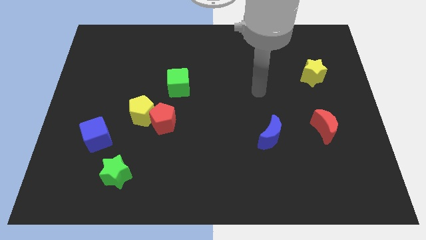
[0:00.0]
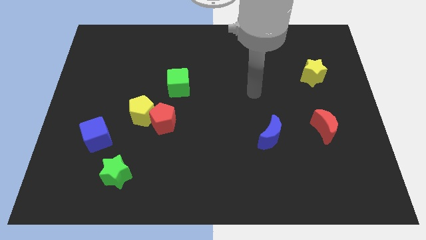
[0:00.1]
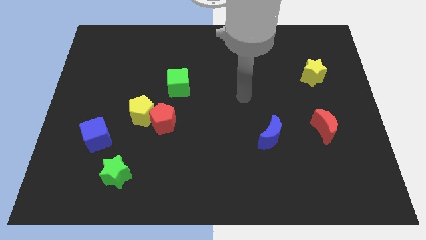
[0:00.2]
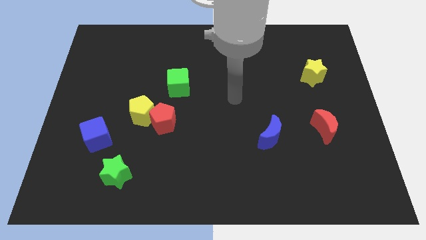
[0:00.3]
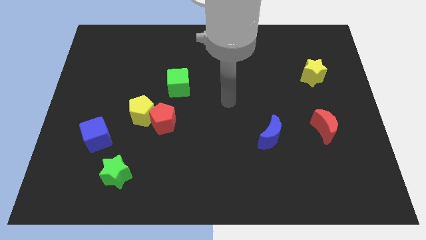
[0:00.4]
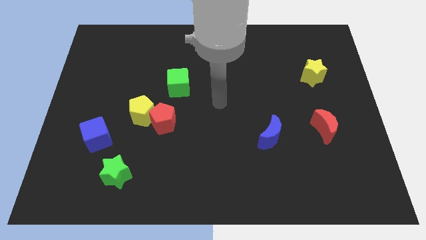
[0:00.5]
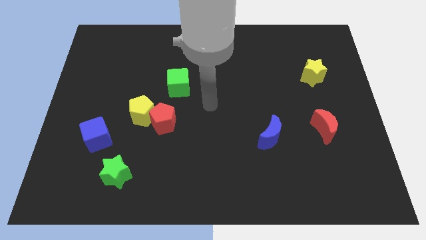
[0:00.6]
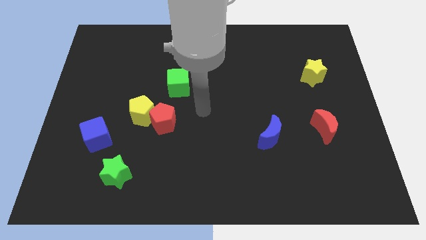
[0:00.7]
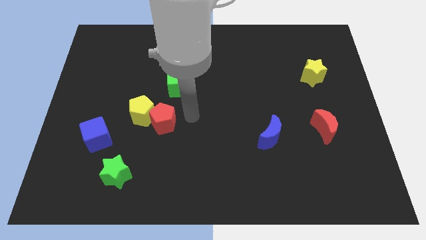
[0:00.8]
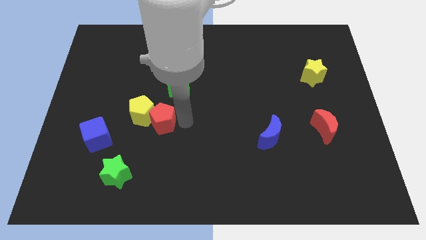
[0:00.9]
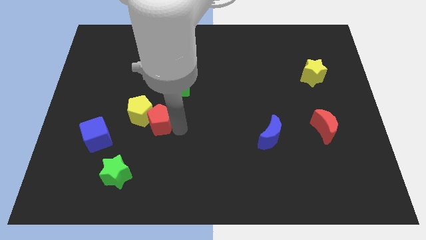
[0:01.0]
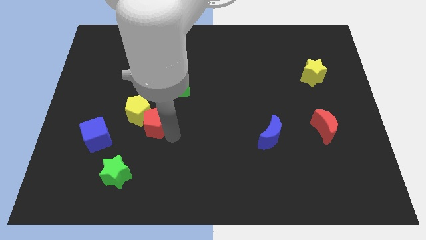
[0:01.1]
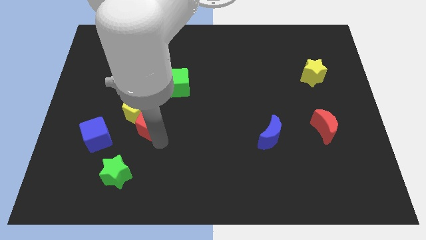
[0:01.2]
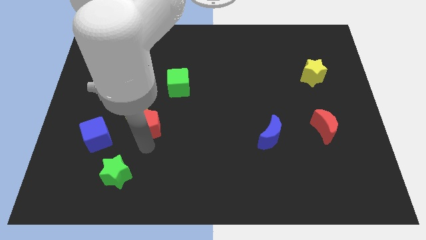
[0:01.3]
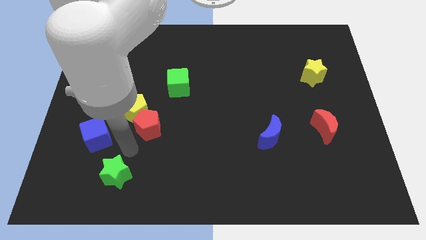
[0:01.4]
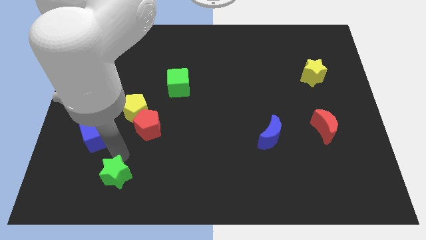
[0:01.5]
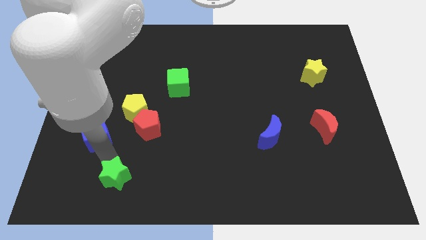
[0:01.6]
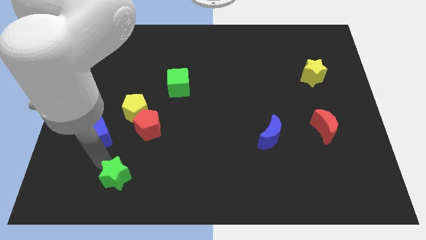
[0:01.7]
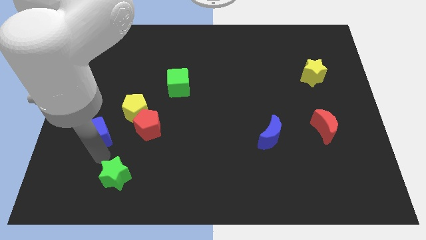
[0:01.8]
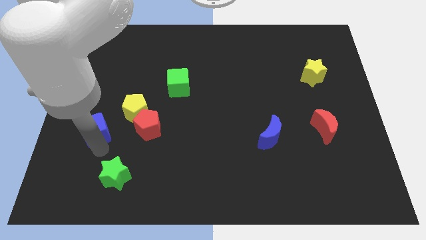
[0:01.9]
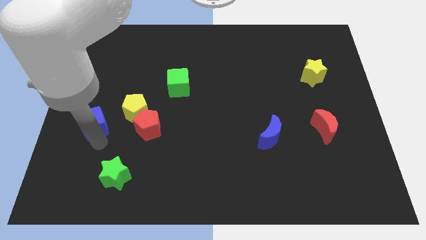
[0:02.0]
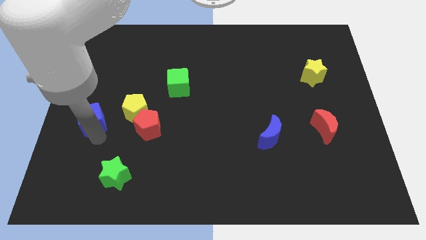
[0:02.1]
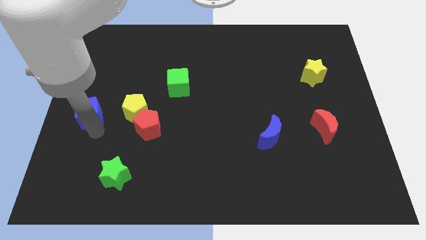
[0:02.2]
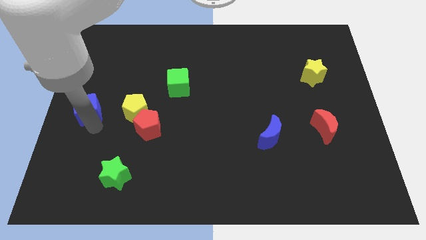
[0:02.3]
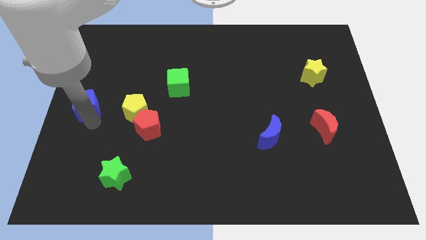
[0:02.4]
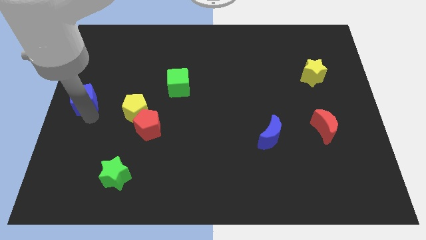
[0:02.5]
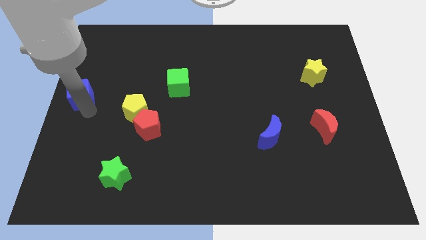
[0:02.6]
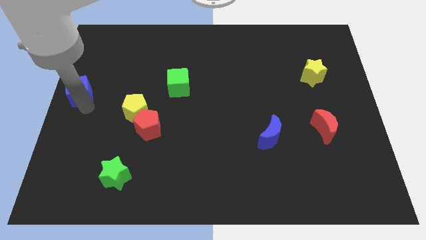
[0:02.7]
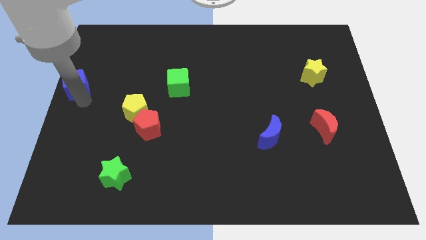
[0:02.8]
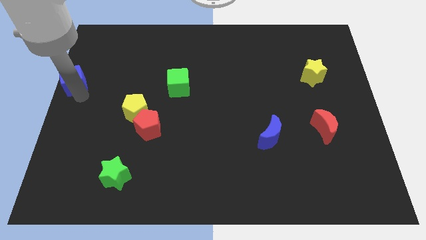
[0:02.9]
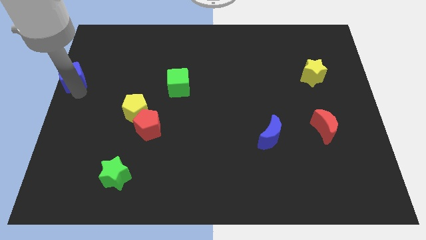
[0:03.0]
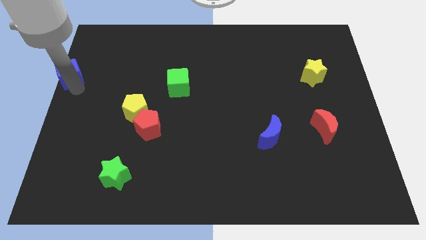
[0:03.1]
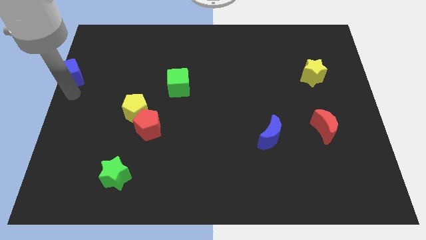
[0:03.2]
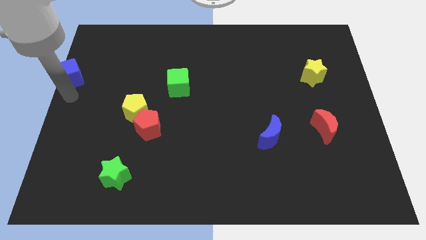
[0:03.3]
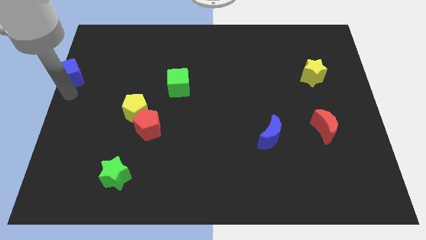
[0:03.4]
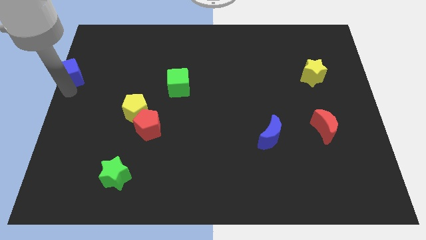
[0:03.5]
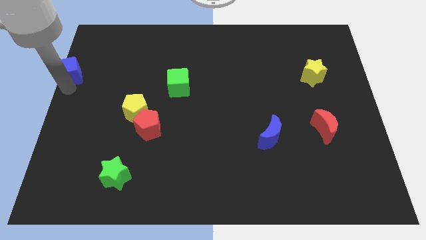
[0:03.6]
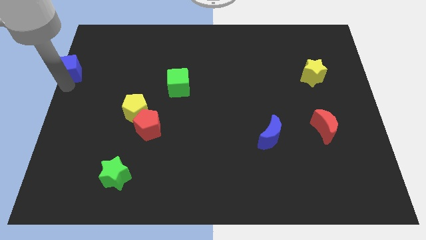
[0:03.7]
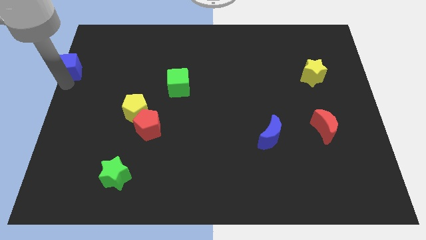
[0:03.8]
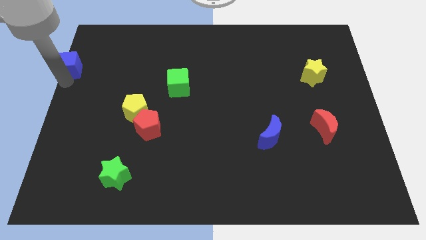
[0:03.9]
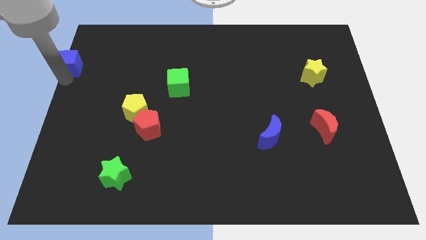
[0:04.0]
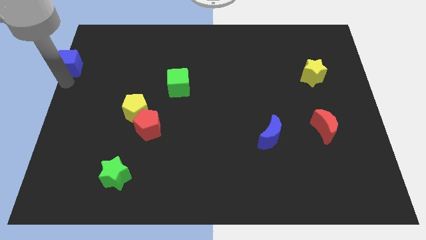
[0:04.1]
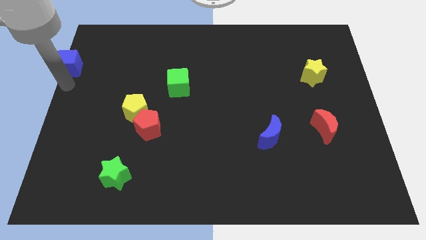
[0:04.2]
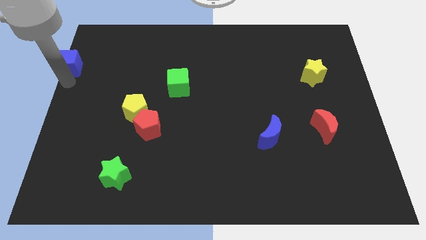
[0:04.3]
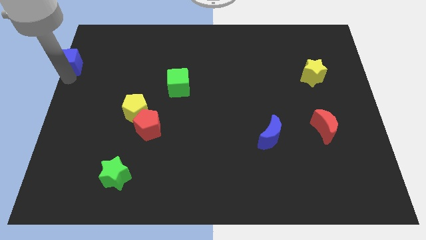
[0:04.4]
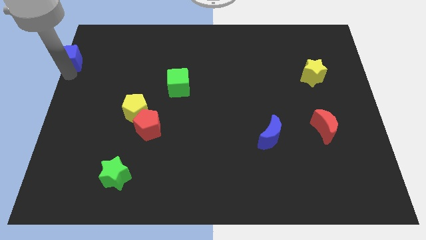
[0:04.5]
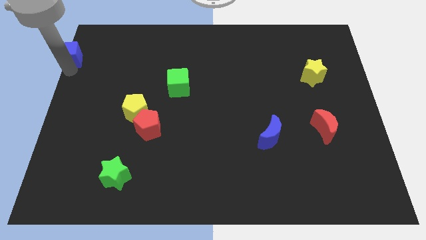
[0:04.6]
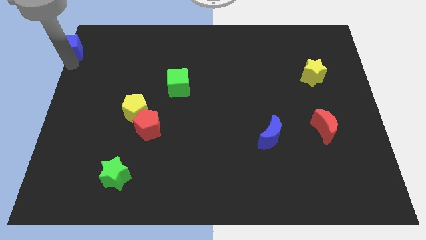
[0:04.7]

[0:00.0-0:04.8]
push the blue cube to the top left of the board

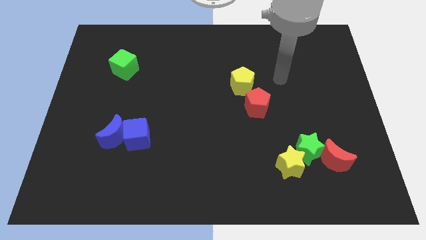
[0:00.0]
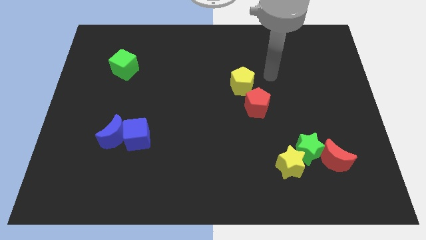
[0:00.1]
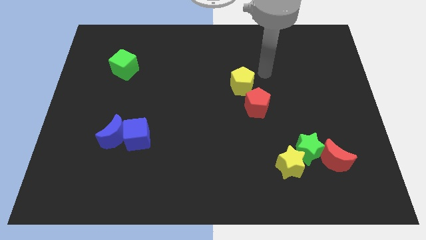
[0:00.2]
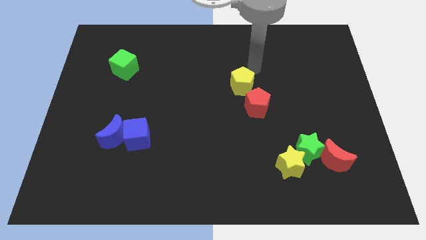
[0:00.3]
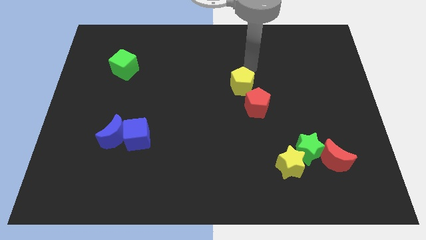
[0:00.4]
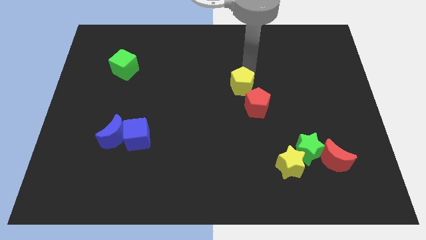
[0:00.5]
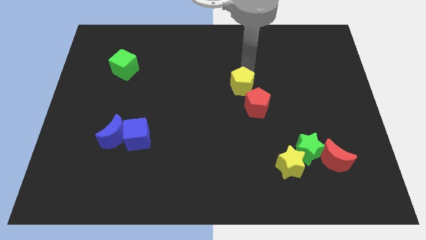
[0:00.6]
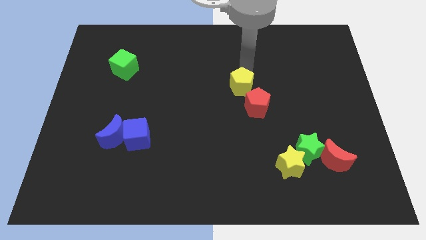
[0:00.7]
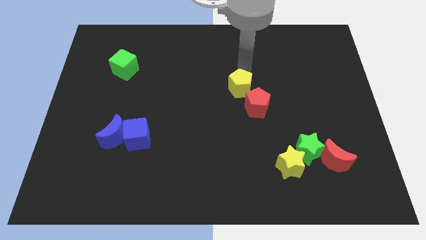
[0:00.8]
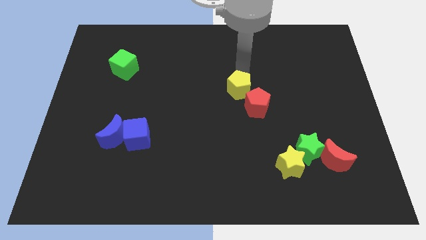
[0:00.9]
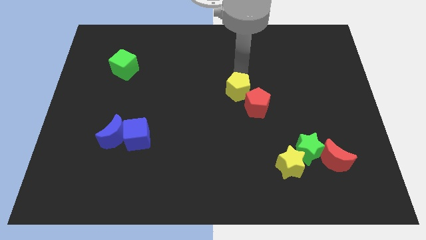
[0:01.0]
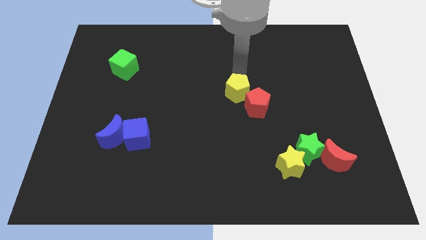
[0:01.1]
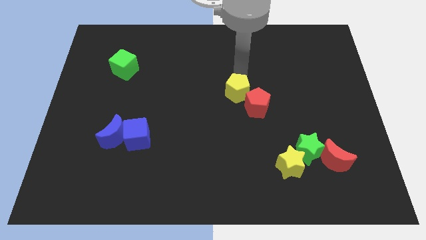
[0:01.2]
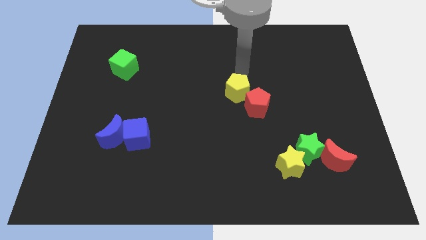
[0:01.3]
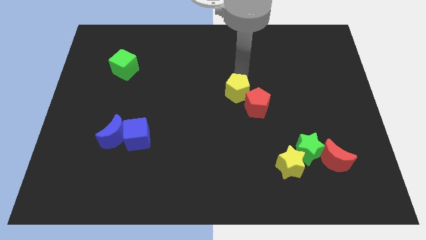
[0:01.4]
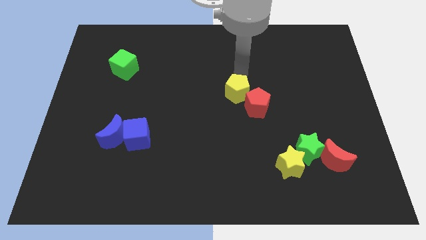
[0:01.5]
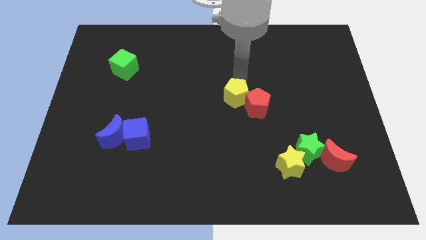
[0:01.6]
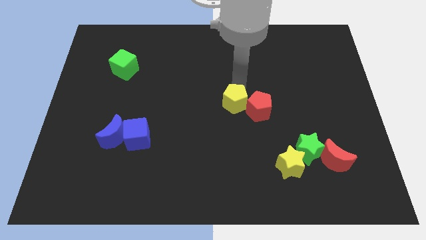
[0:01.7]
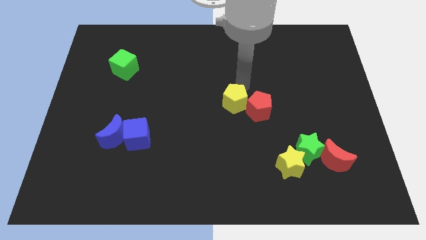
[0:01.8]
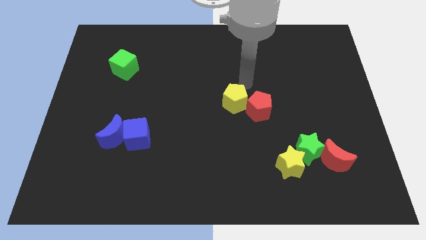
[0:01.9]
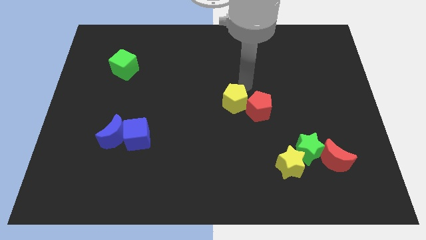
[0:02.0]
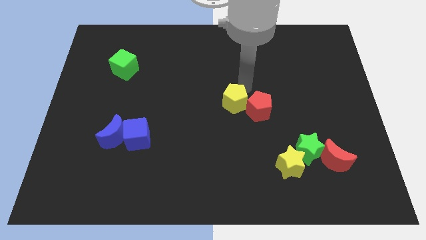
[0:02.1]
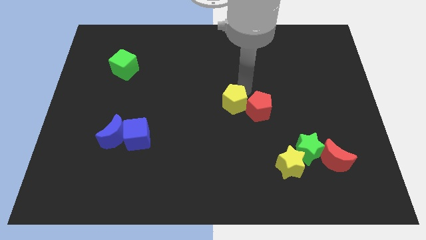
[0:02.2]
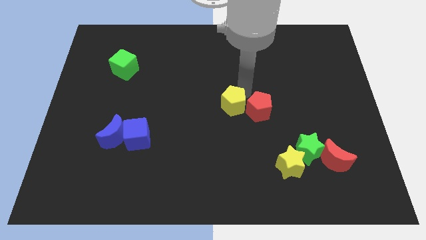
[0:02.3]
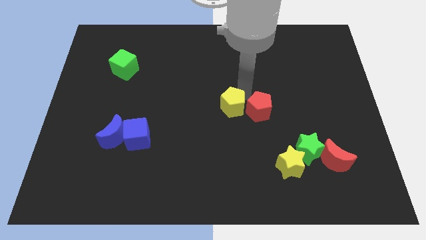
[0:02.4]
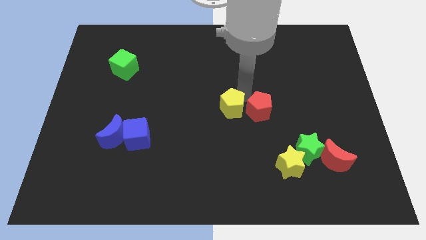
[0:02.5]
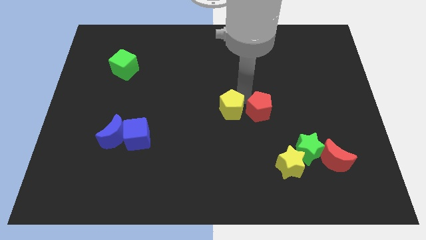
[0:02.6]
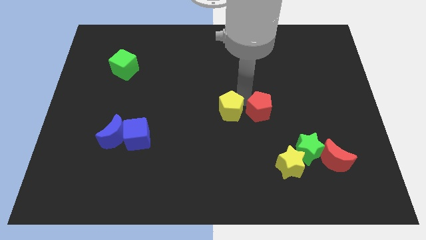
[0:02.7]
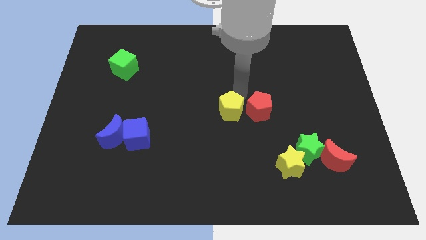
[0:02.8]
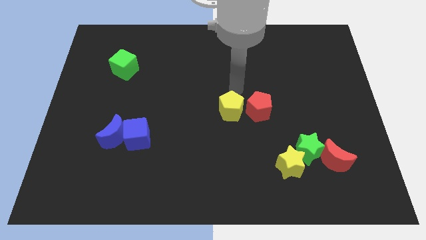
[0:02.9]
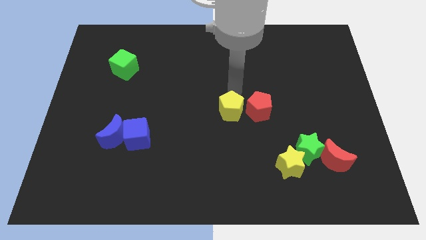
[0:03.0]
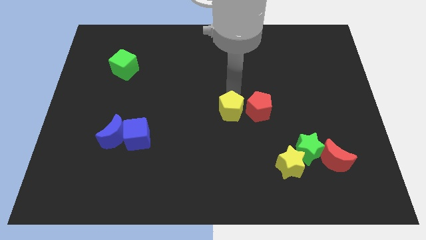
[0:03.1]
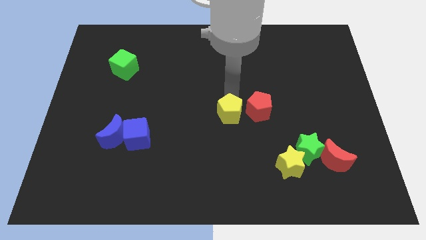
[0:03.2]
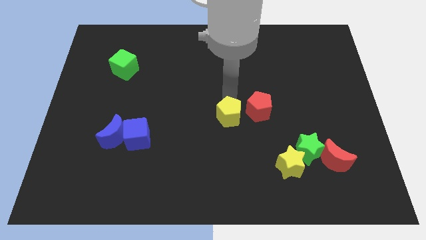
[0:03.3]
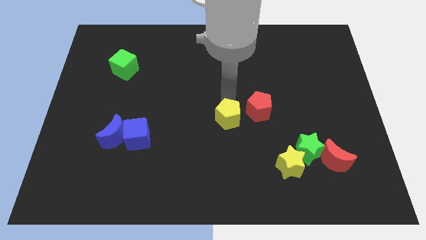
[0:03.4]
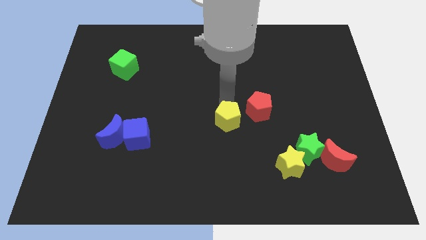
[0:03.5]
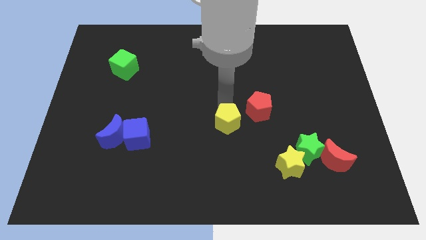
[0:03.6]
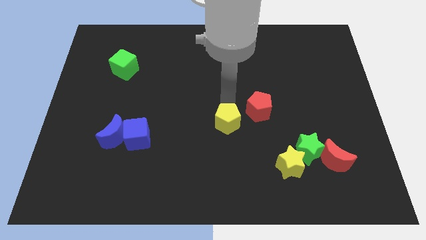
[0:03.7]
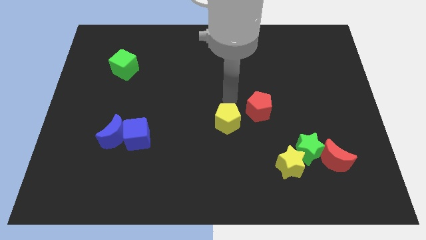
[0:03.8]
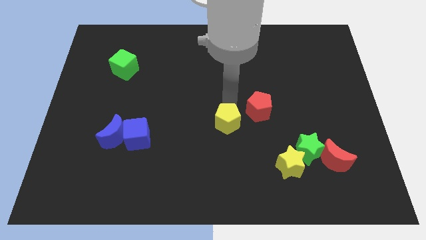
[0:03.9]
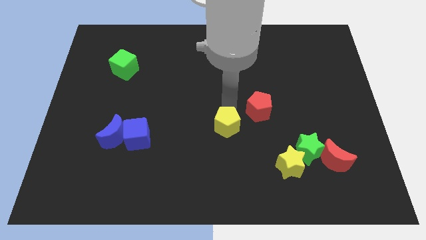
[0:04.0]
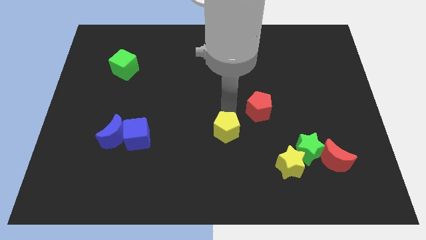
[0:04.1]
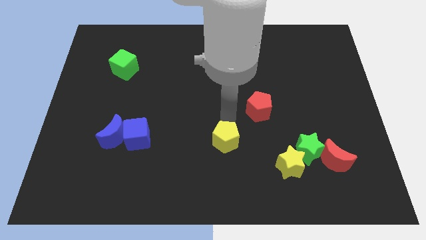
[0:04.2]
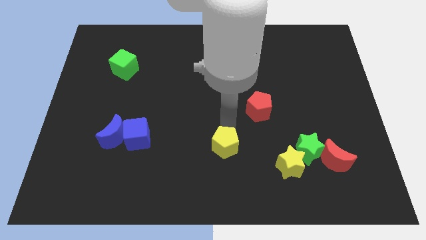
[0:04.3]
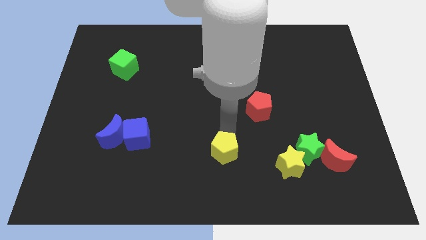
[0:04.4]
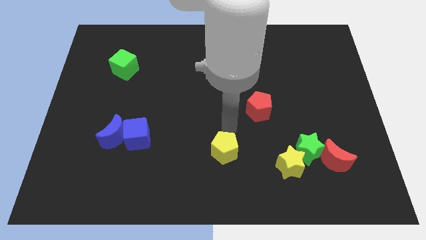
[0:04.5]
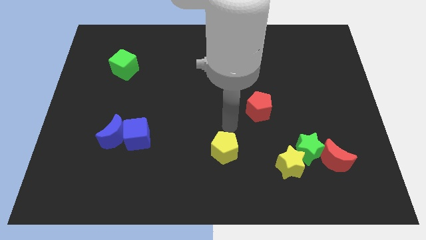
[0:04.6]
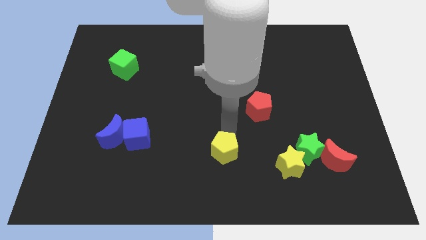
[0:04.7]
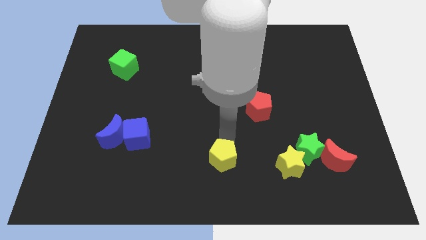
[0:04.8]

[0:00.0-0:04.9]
move the yellow pentagon to the bottom
